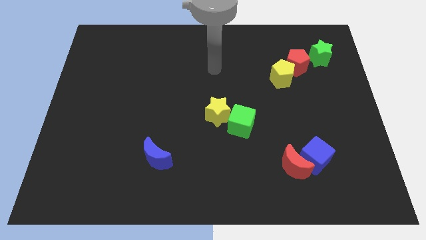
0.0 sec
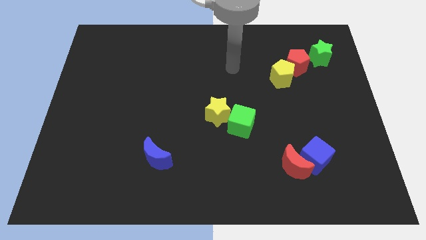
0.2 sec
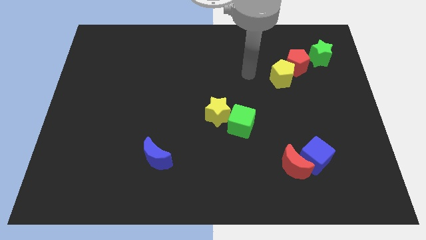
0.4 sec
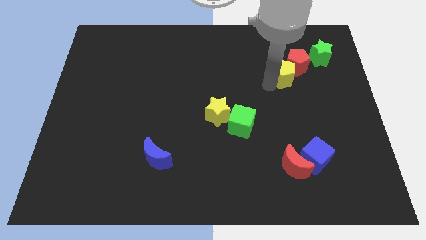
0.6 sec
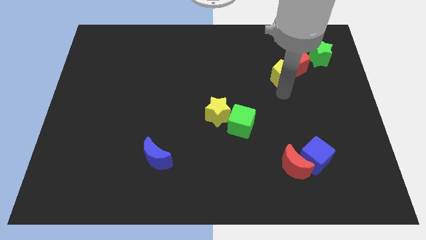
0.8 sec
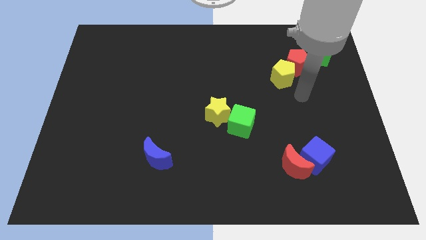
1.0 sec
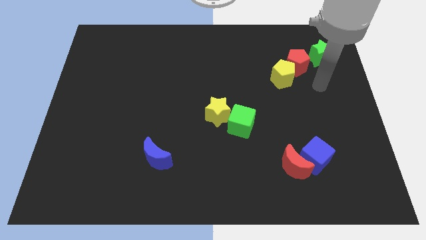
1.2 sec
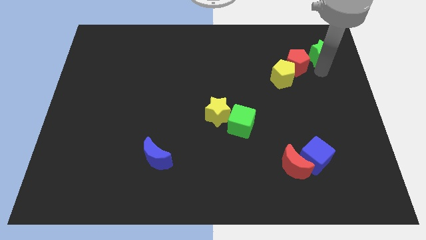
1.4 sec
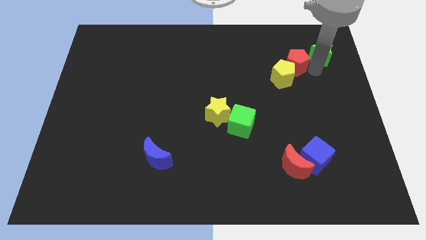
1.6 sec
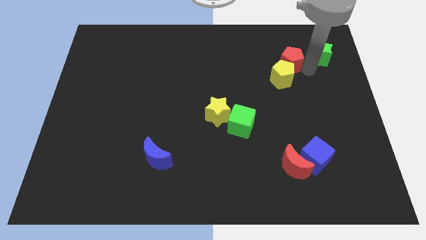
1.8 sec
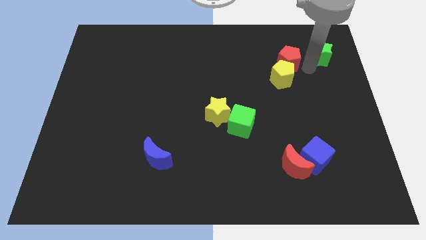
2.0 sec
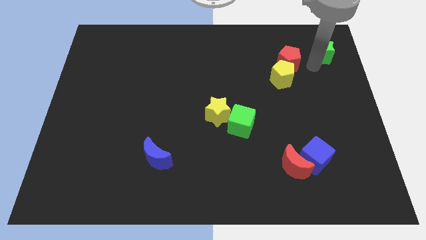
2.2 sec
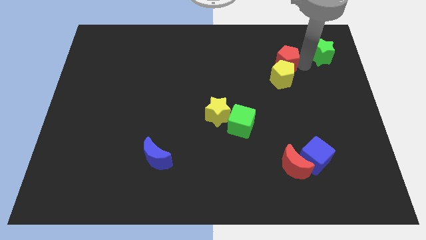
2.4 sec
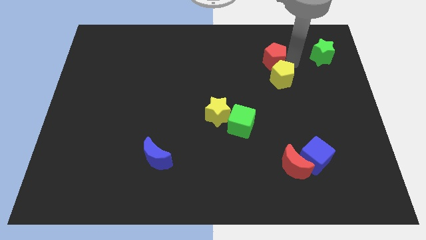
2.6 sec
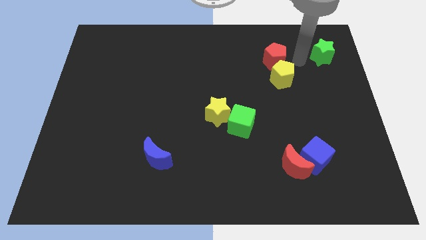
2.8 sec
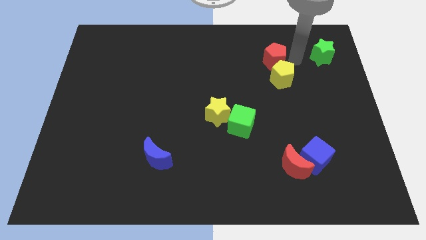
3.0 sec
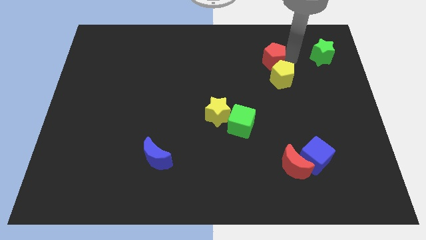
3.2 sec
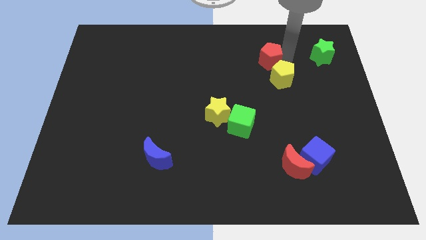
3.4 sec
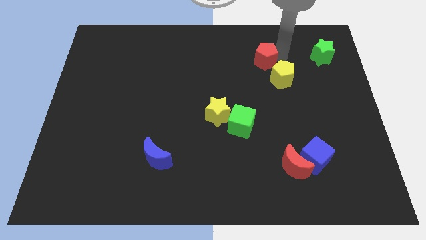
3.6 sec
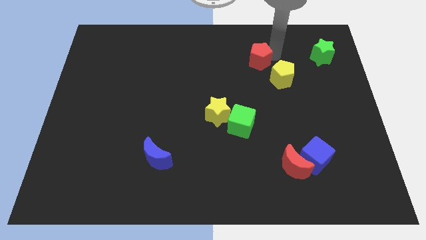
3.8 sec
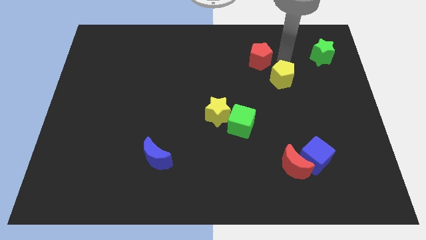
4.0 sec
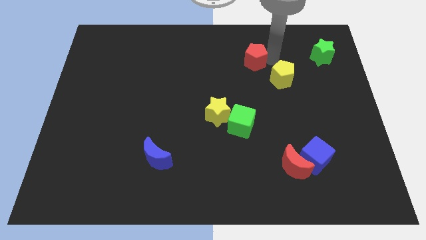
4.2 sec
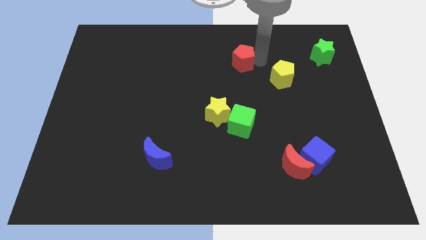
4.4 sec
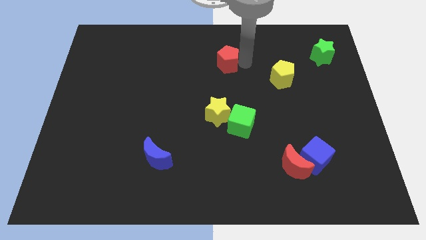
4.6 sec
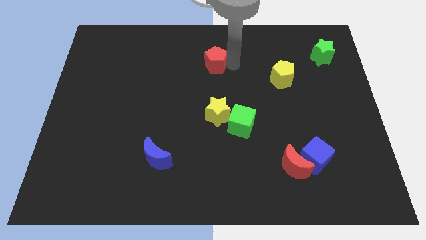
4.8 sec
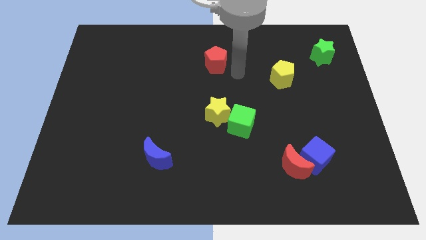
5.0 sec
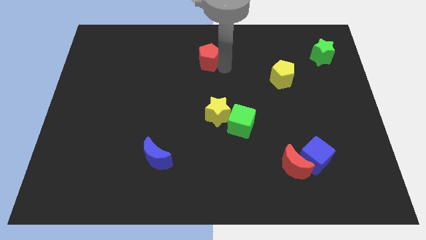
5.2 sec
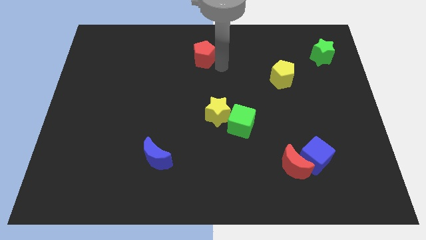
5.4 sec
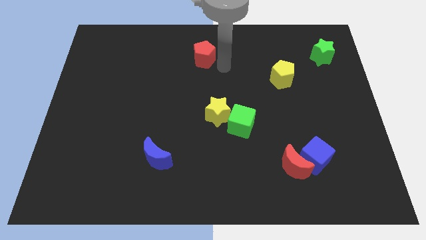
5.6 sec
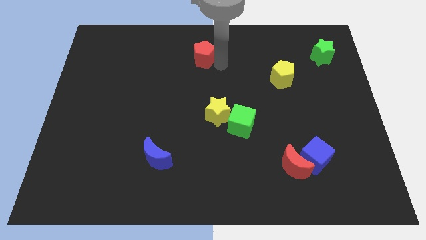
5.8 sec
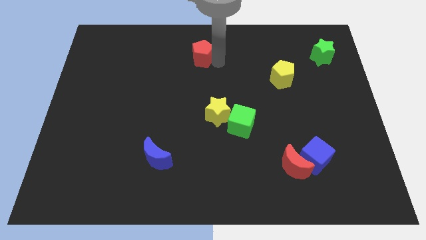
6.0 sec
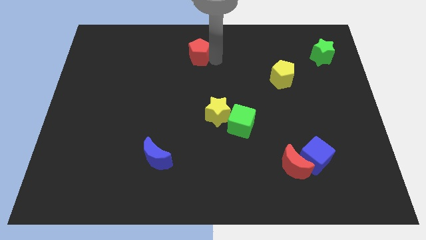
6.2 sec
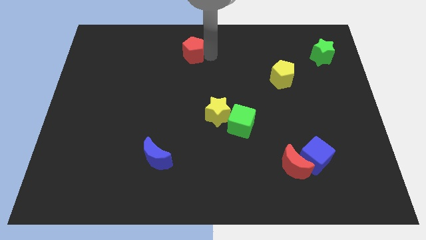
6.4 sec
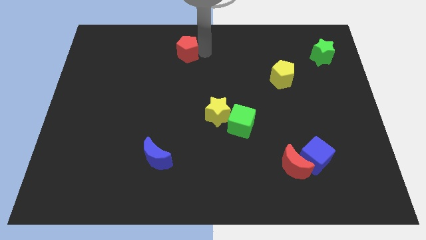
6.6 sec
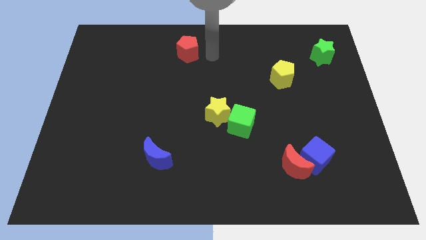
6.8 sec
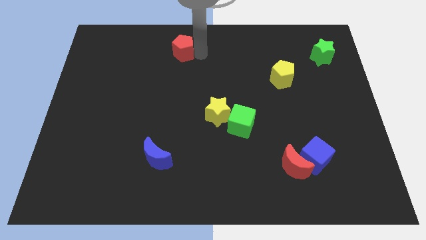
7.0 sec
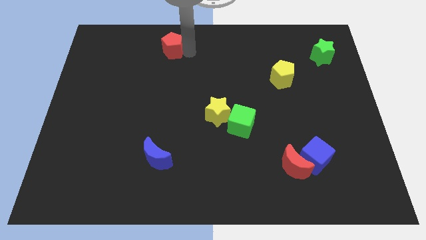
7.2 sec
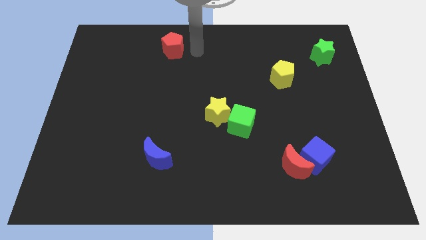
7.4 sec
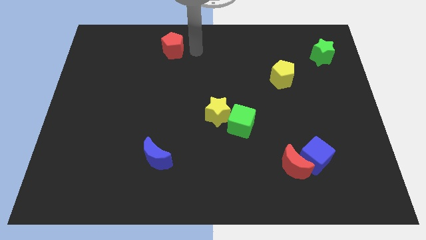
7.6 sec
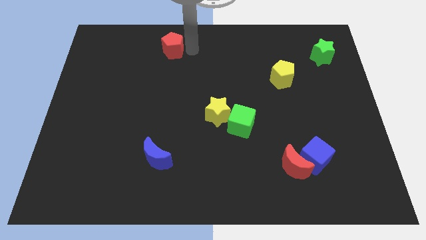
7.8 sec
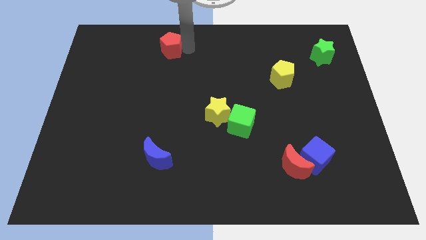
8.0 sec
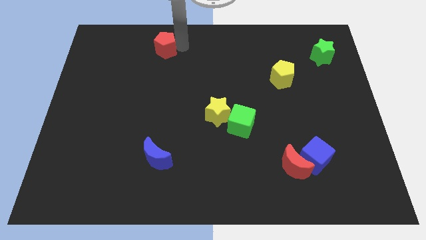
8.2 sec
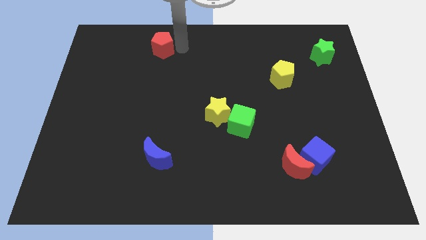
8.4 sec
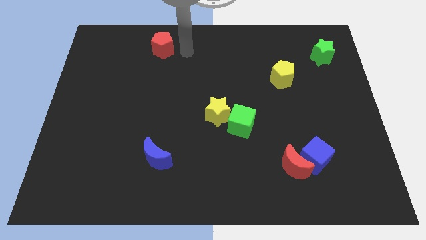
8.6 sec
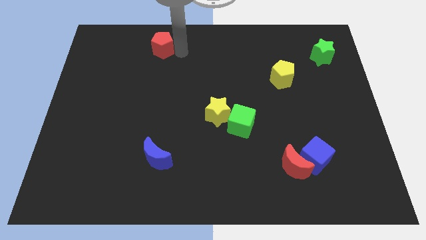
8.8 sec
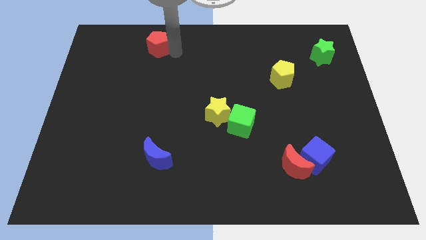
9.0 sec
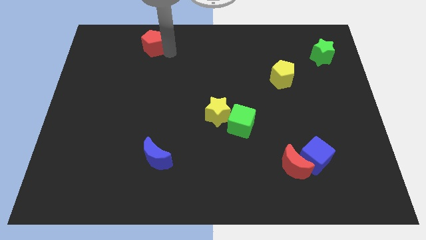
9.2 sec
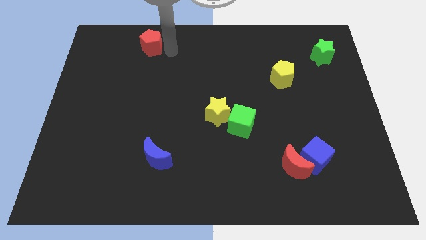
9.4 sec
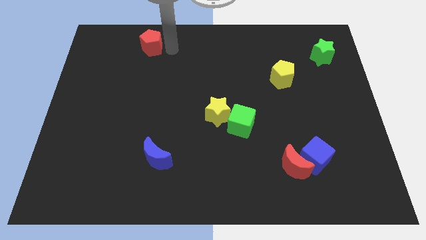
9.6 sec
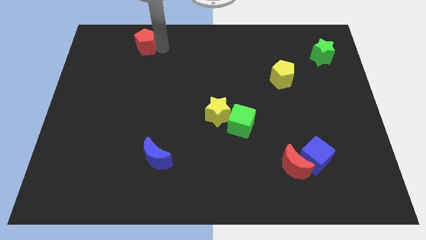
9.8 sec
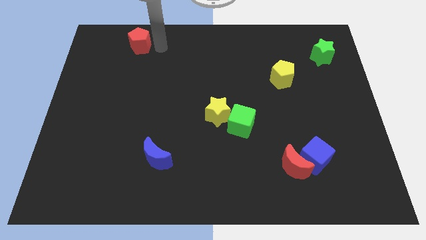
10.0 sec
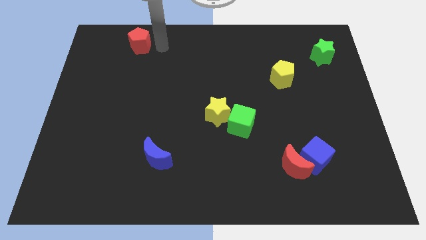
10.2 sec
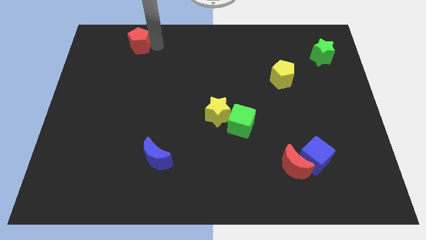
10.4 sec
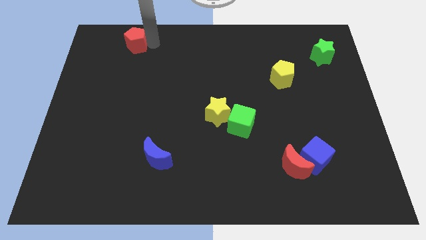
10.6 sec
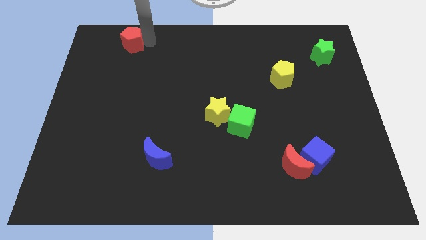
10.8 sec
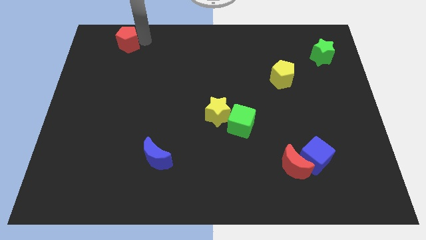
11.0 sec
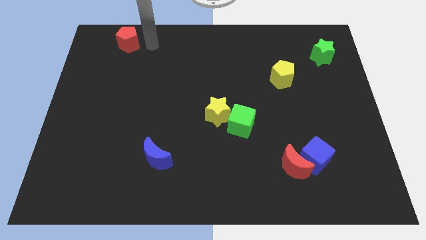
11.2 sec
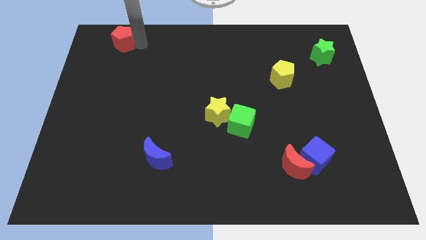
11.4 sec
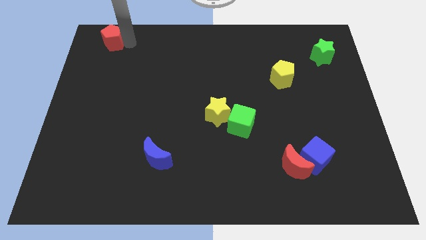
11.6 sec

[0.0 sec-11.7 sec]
put the red pentagon to the top left of the board

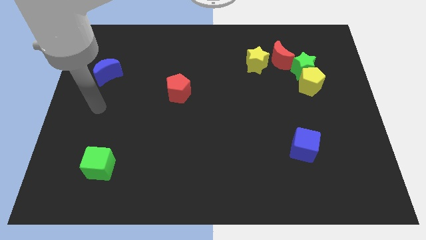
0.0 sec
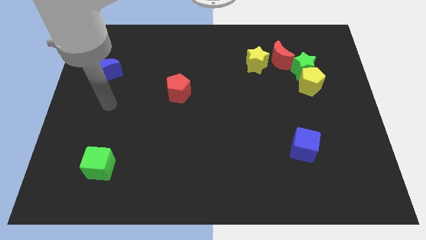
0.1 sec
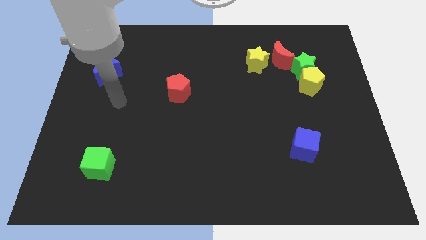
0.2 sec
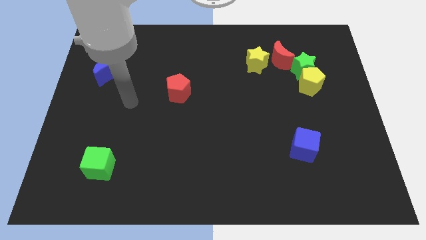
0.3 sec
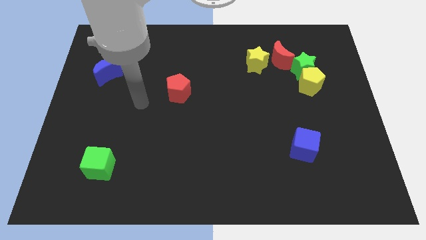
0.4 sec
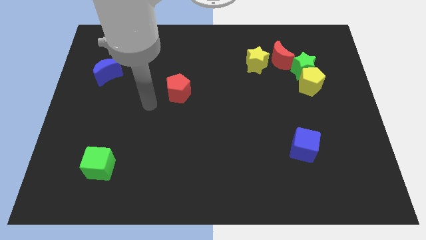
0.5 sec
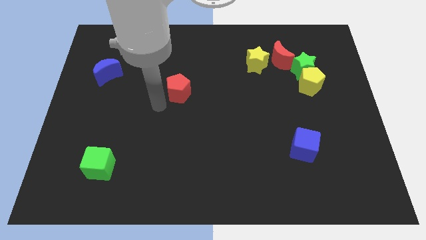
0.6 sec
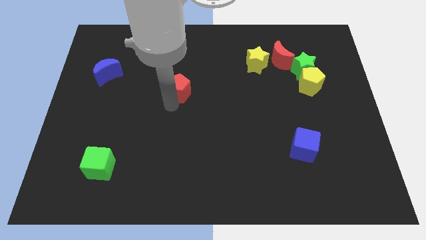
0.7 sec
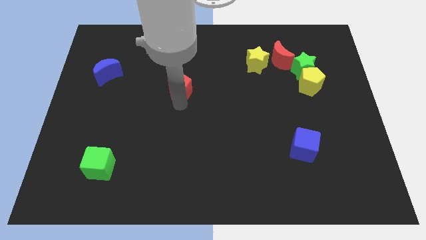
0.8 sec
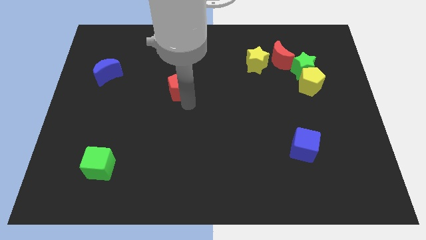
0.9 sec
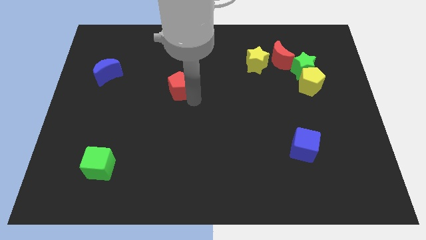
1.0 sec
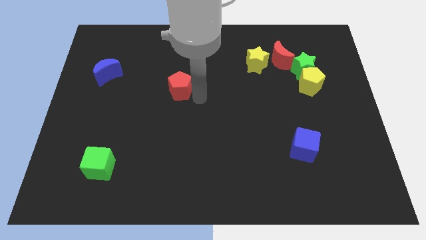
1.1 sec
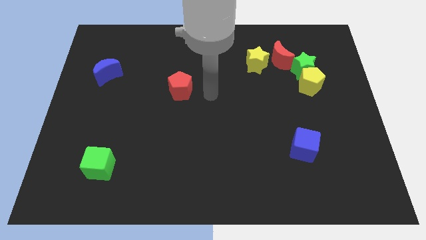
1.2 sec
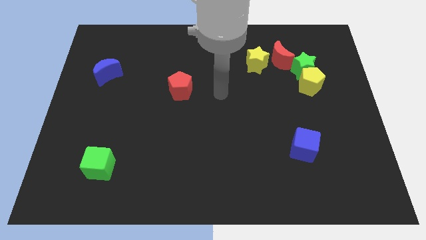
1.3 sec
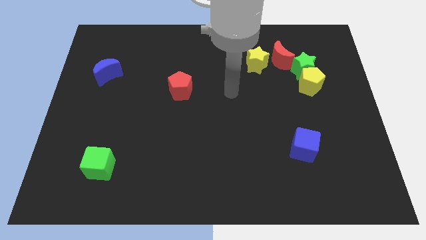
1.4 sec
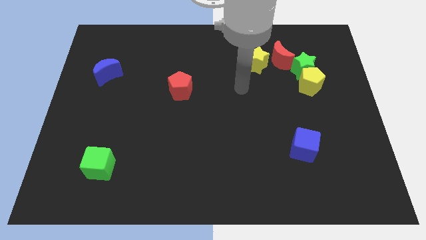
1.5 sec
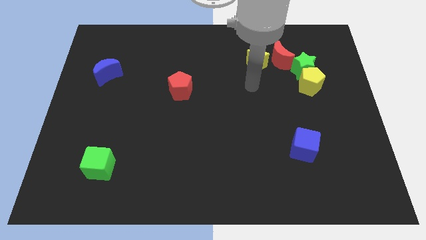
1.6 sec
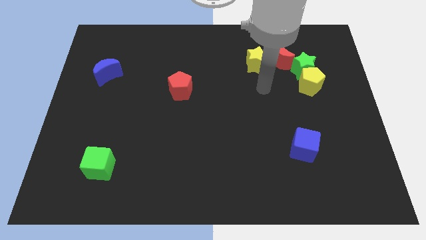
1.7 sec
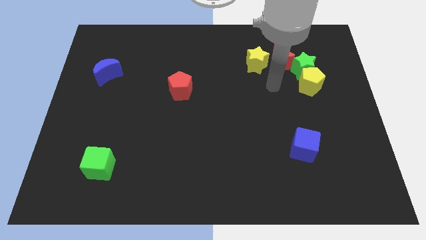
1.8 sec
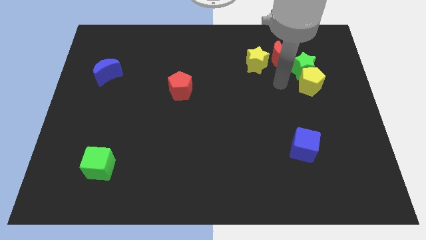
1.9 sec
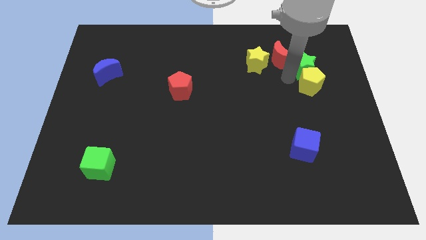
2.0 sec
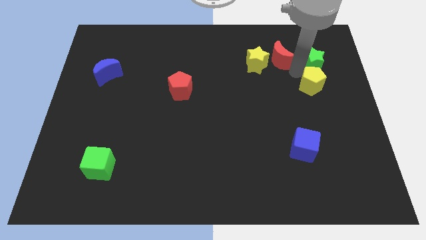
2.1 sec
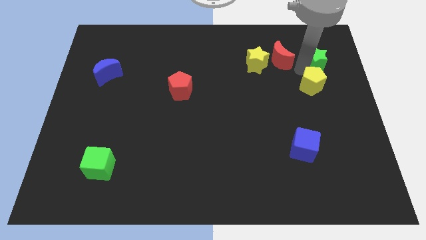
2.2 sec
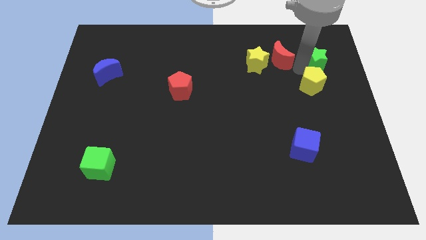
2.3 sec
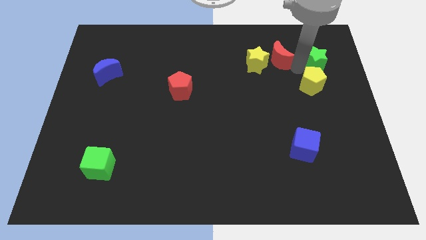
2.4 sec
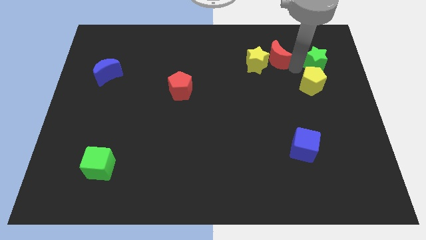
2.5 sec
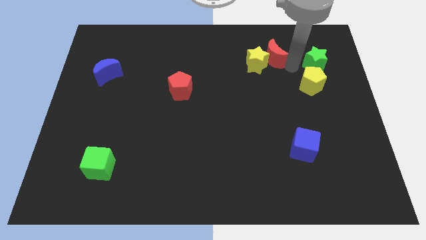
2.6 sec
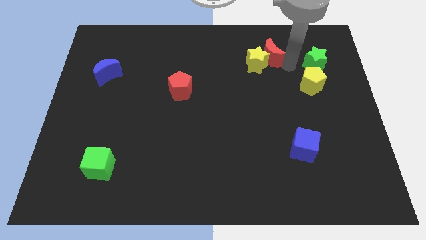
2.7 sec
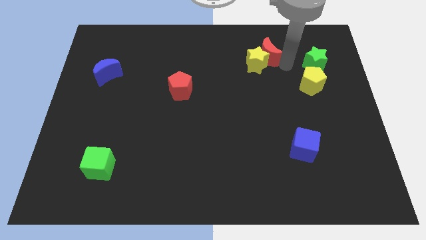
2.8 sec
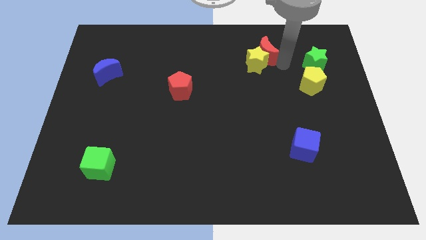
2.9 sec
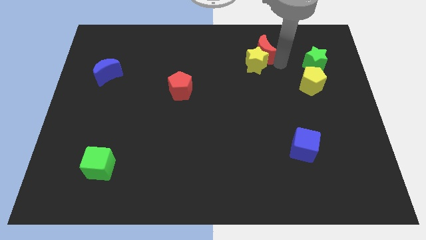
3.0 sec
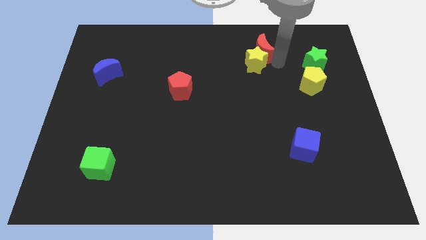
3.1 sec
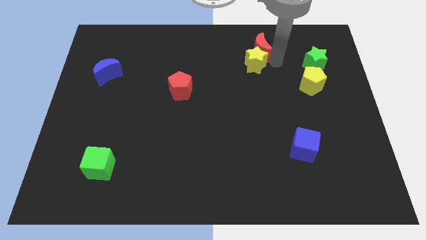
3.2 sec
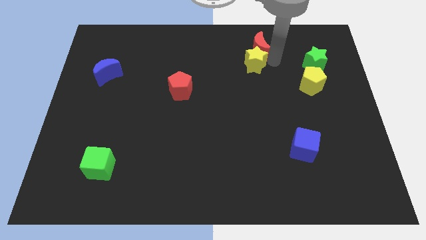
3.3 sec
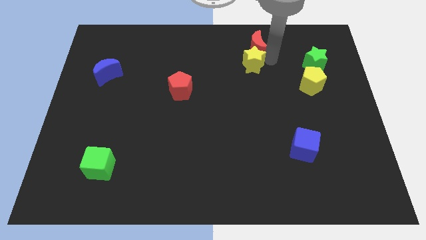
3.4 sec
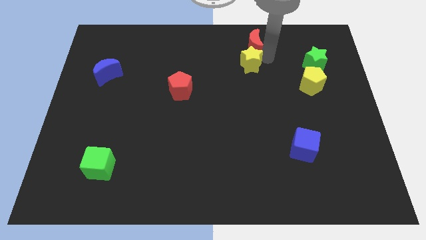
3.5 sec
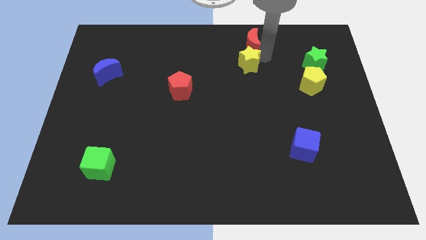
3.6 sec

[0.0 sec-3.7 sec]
slide the red moon to the towards your base
